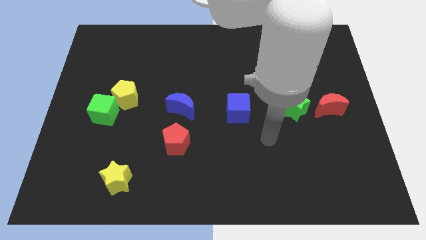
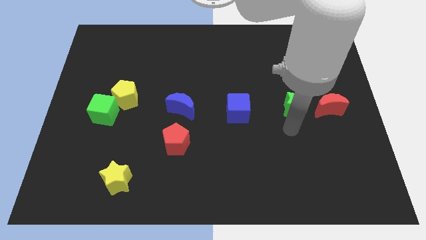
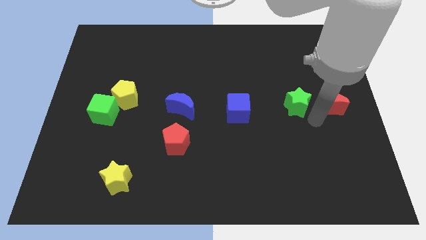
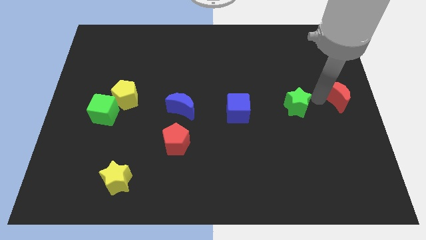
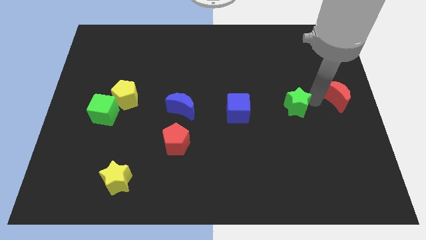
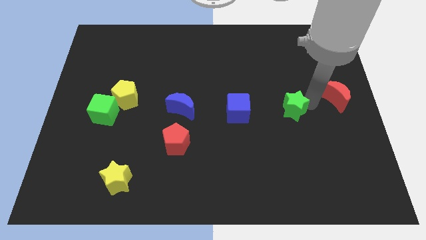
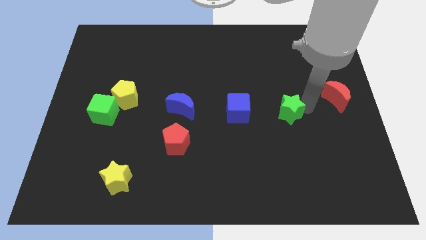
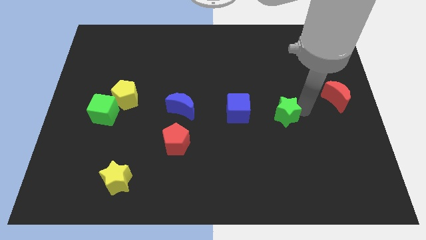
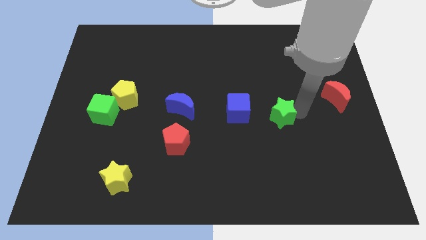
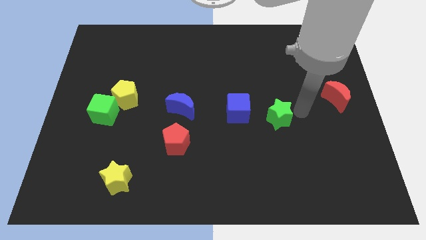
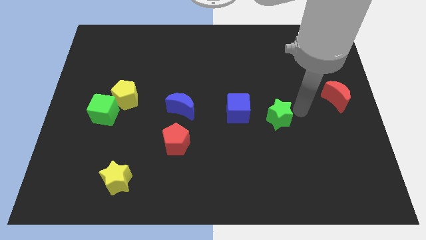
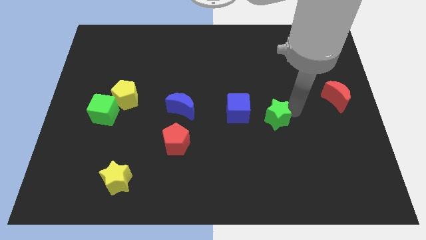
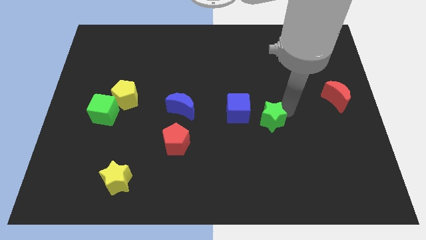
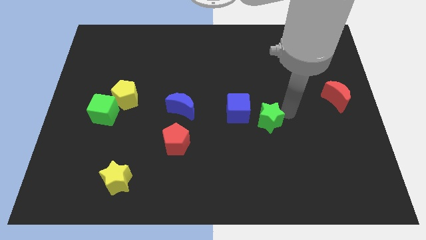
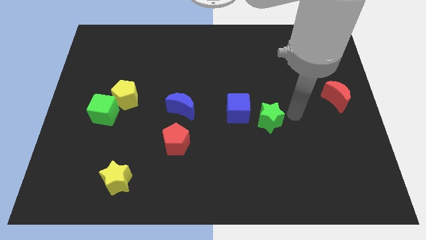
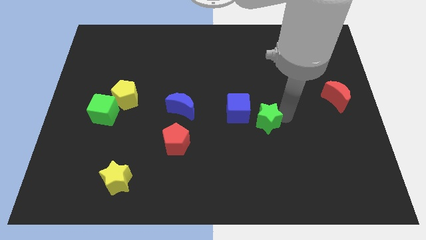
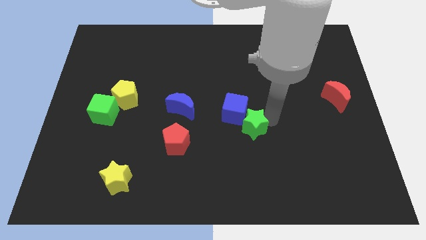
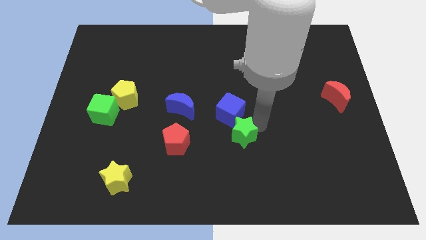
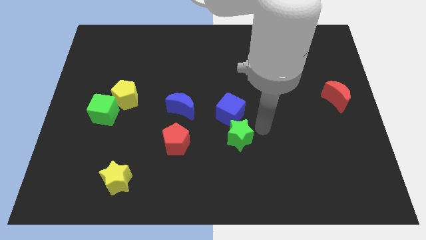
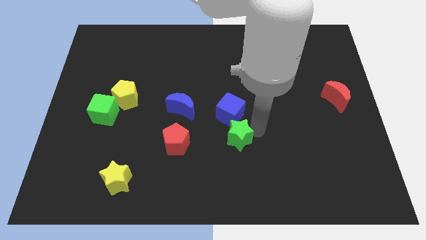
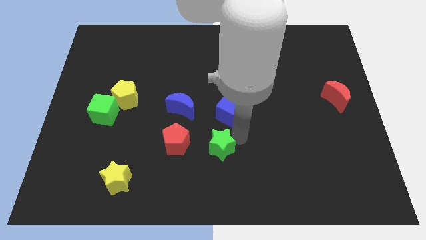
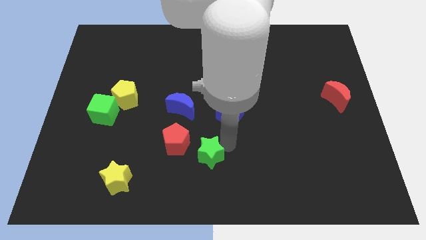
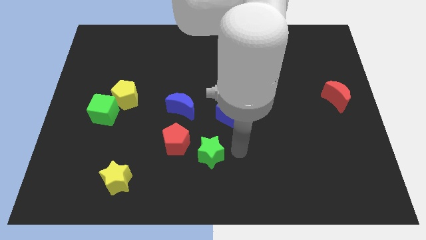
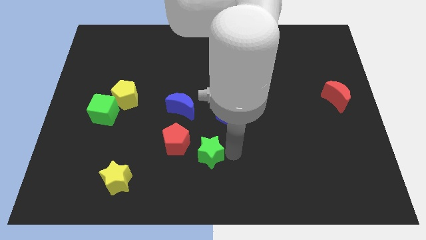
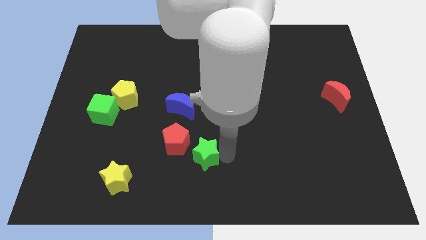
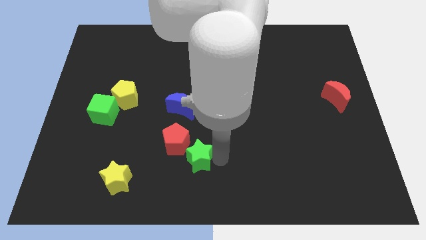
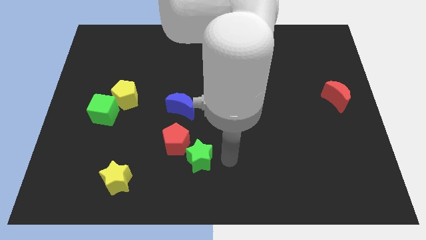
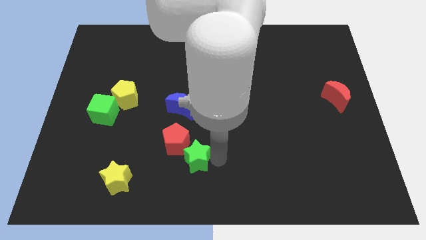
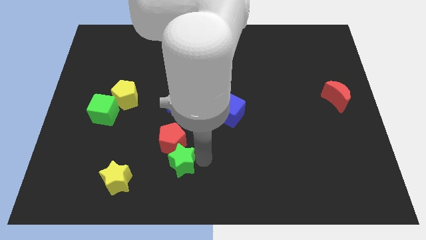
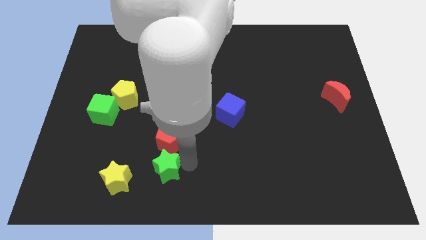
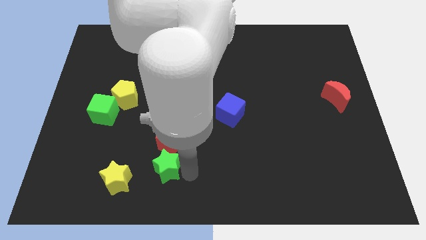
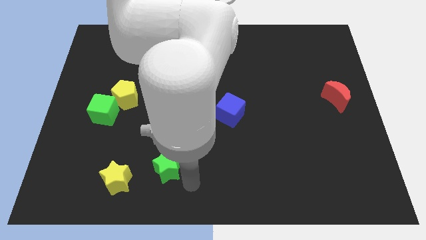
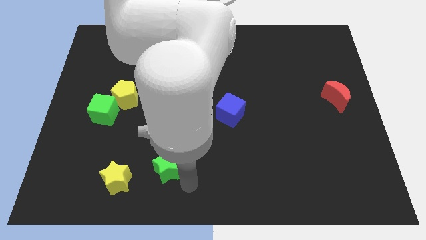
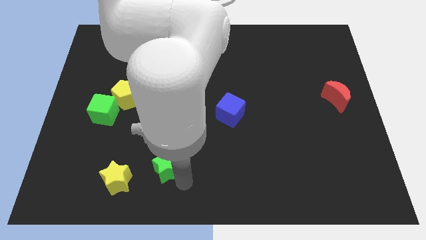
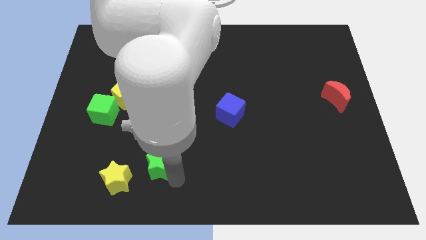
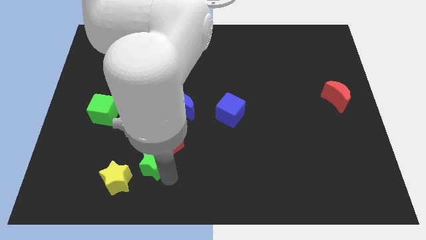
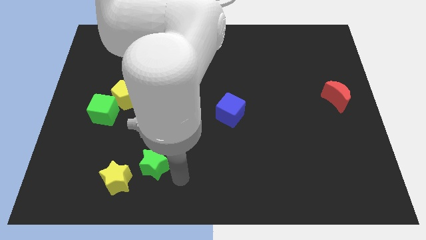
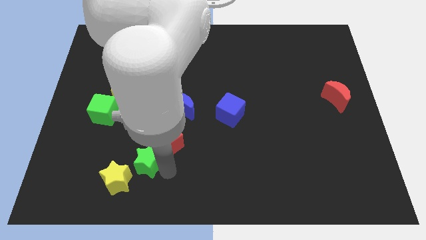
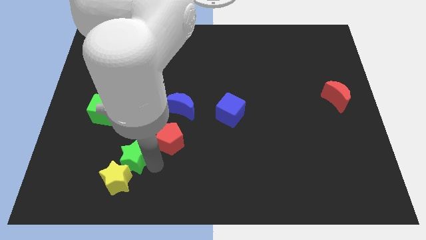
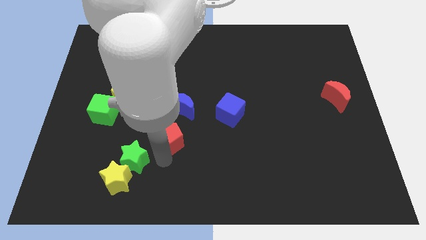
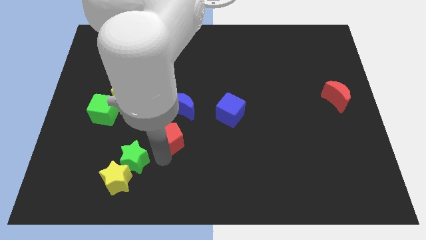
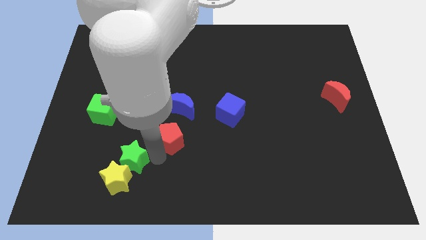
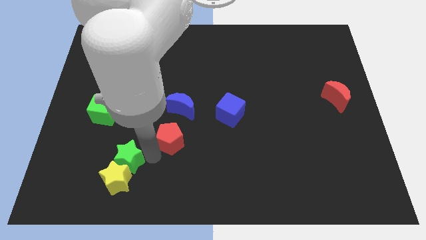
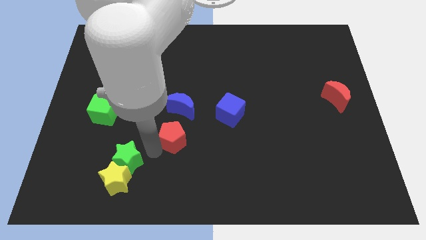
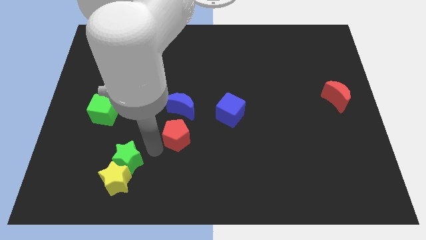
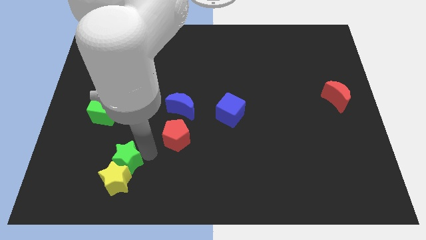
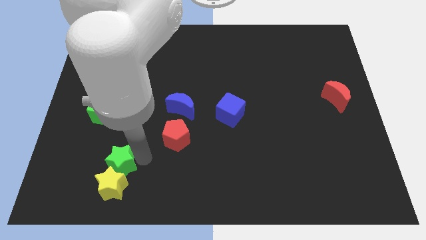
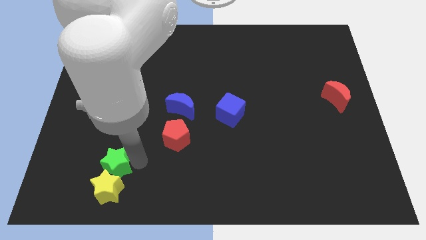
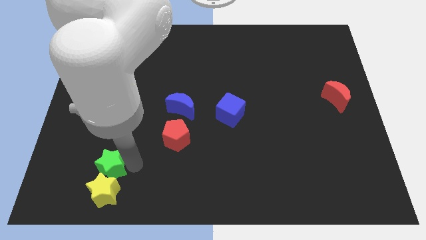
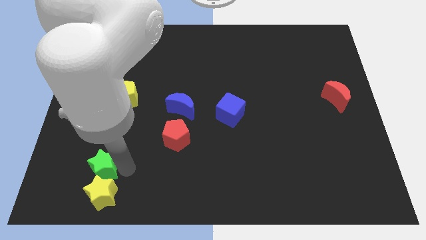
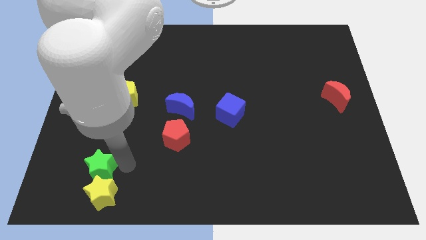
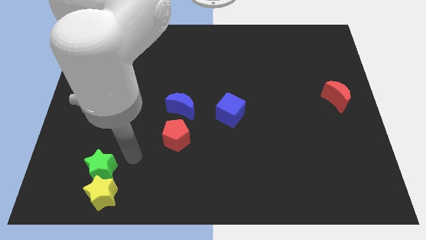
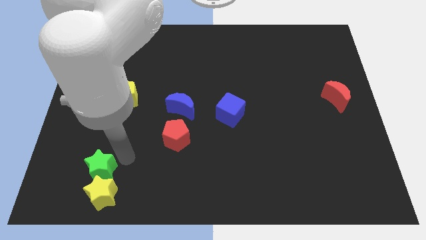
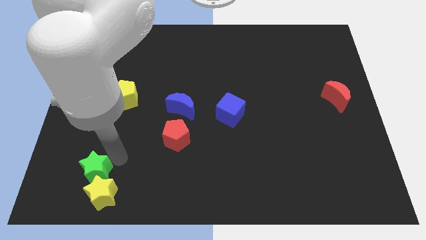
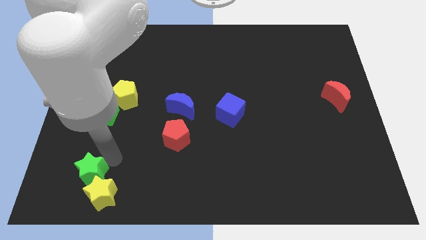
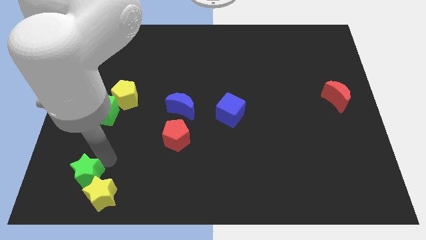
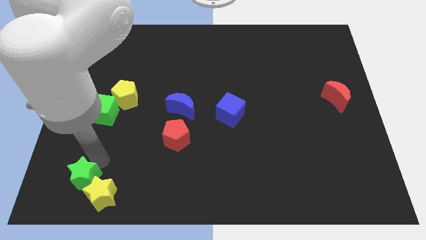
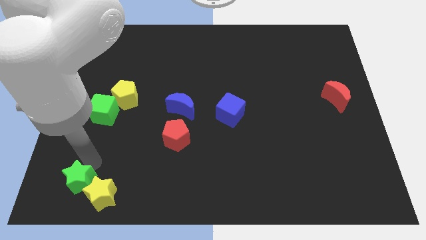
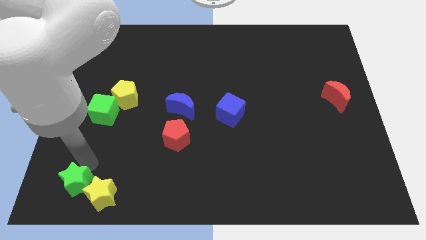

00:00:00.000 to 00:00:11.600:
push the green star to the bottom left corner

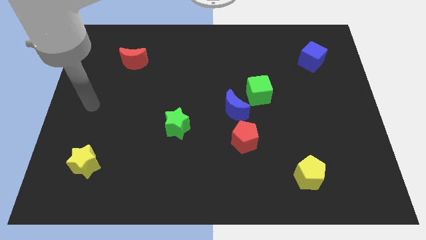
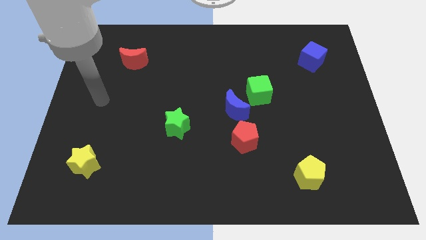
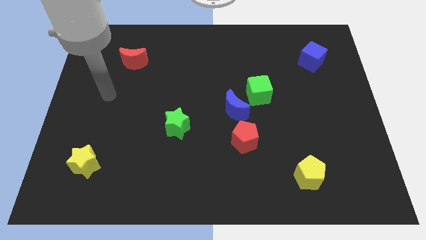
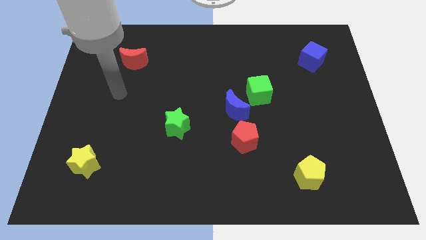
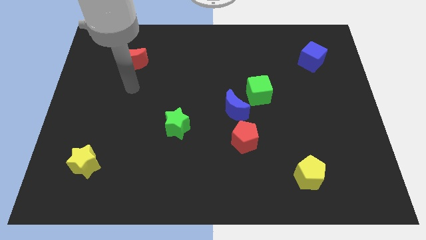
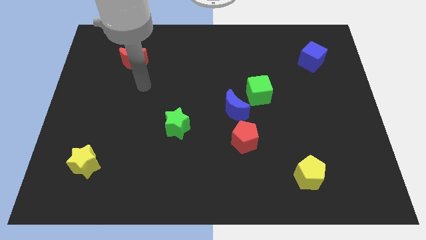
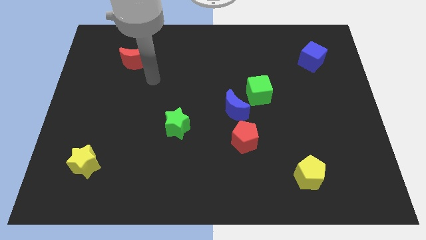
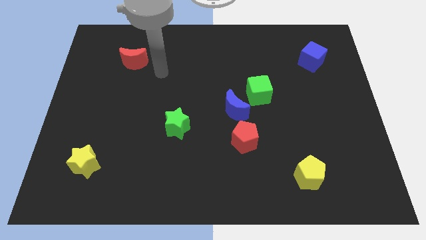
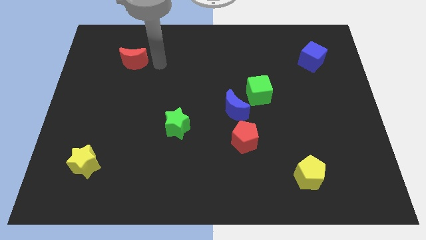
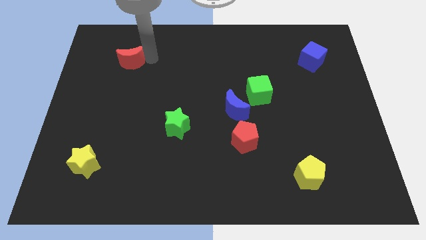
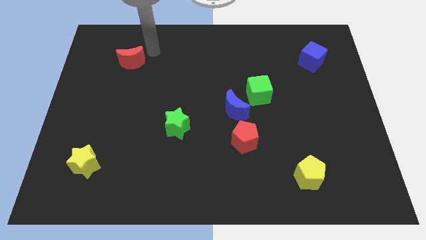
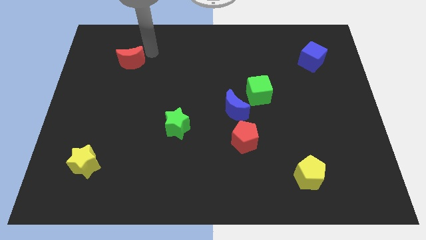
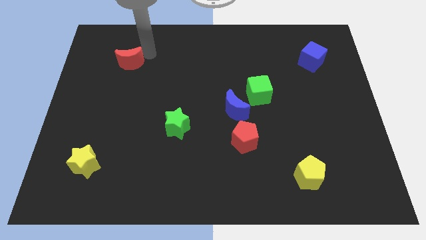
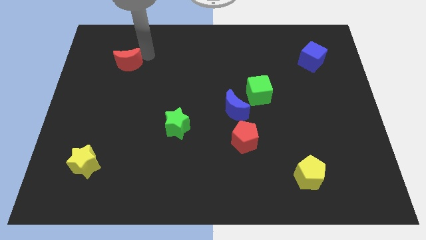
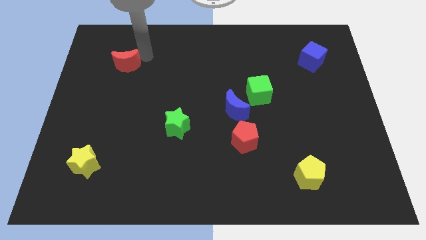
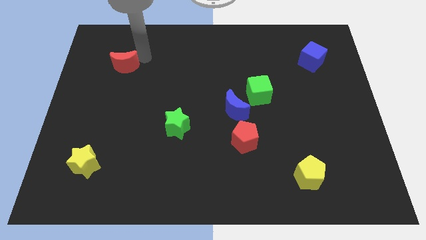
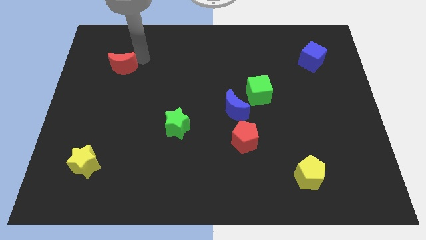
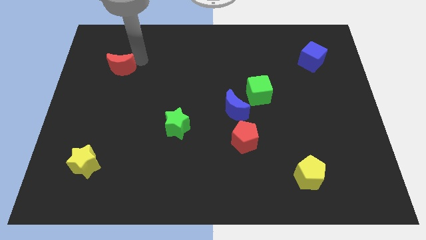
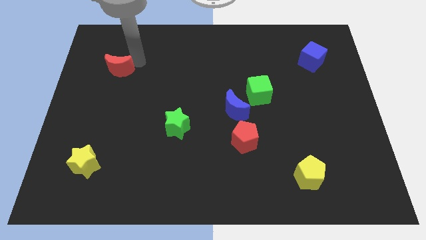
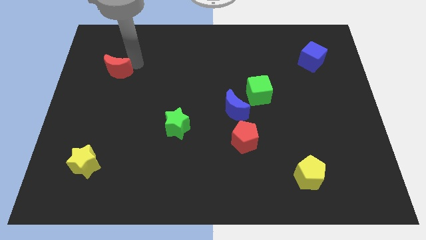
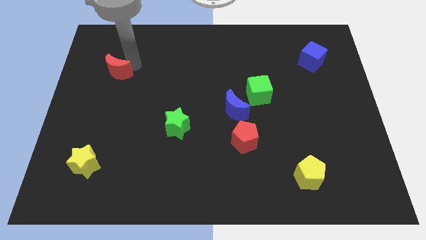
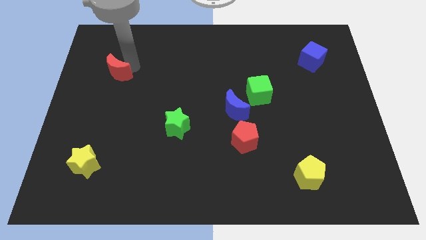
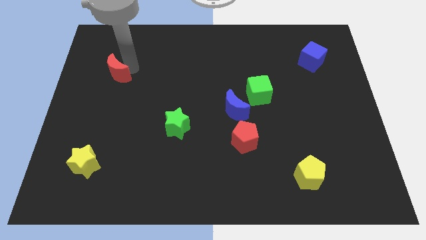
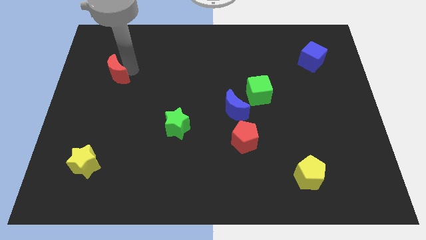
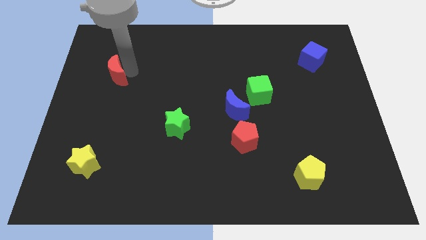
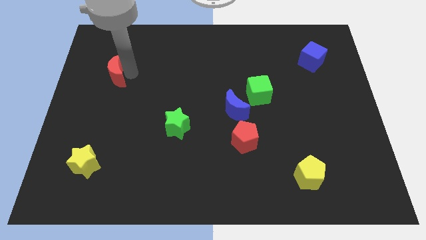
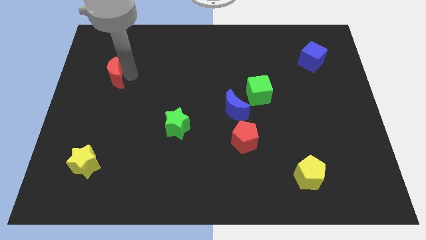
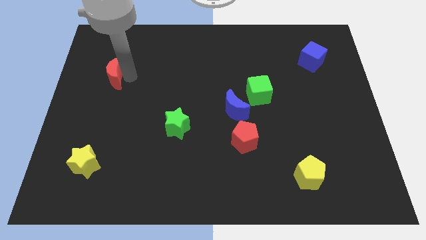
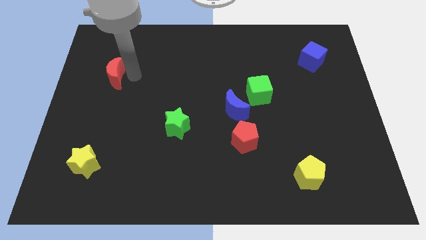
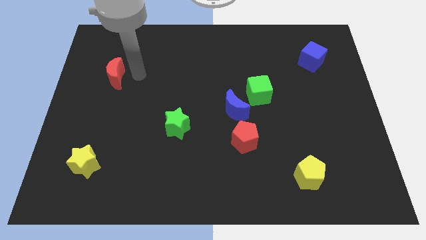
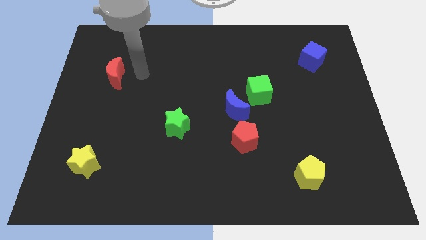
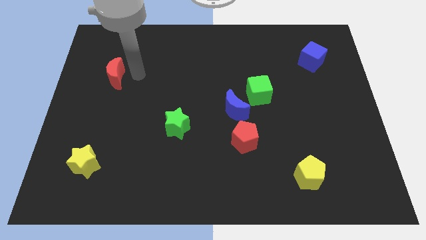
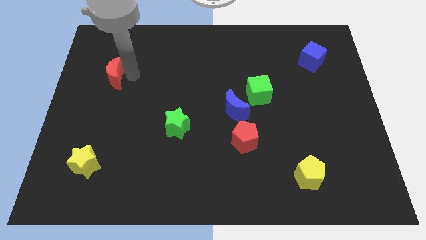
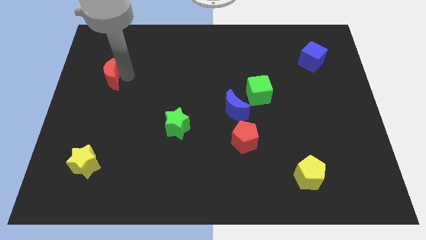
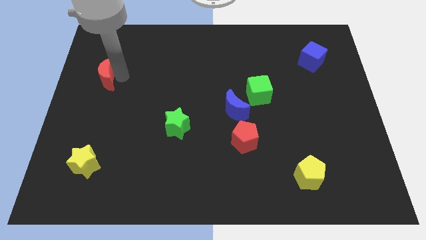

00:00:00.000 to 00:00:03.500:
put the red moon to the left side
